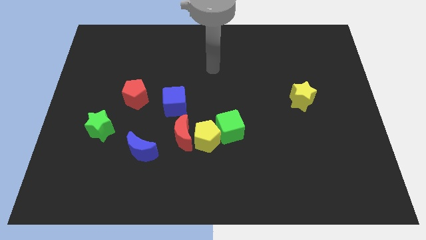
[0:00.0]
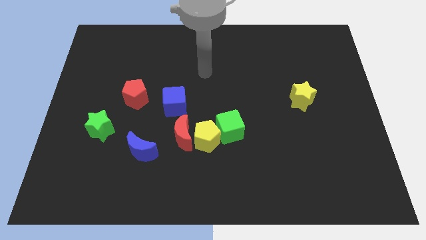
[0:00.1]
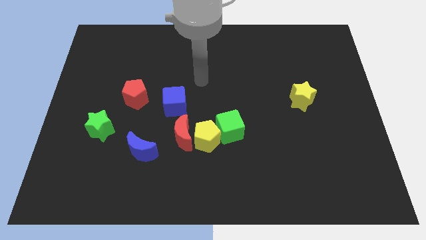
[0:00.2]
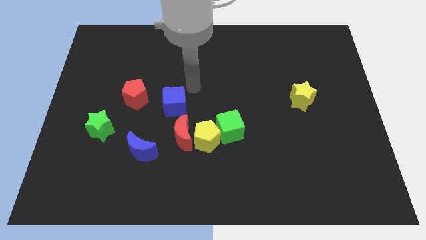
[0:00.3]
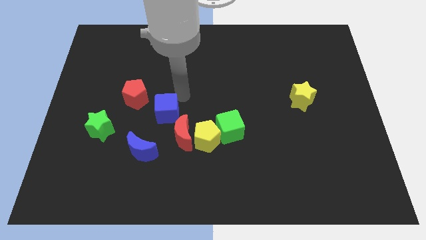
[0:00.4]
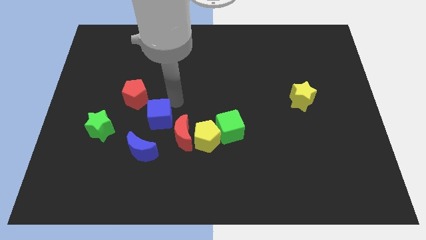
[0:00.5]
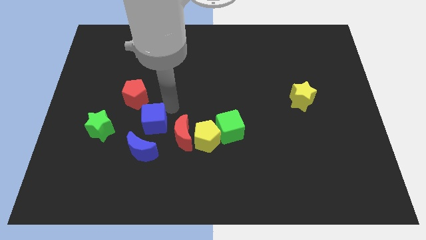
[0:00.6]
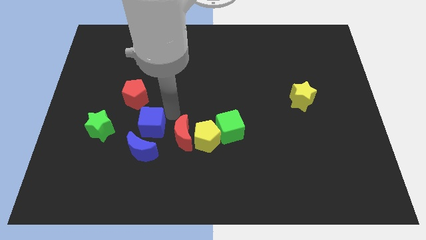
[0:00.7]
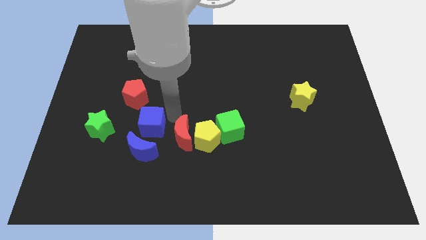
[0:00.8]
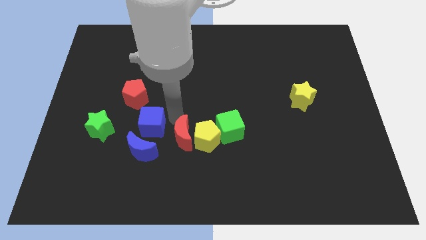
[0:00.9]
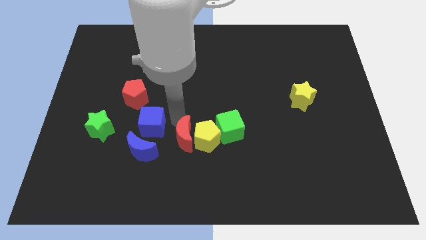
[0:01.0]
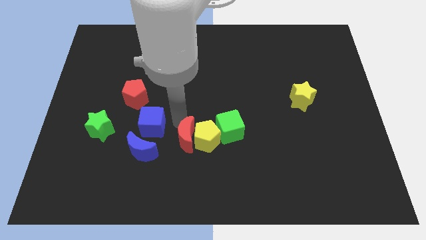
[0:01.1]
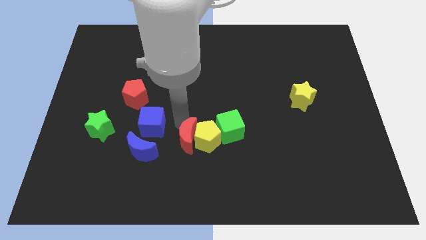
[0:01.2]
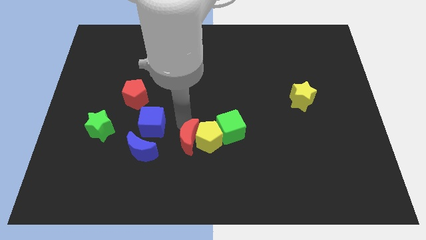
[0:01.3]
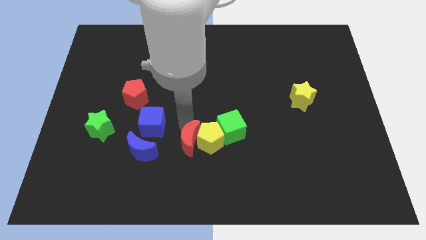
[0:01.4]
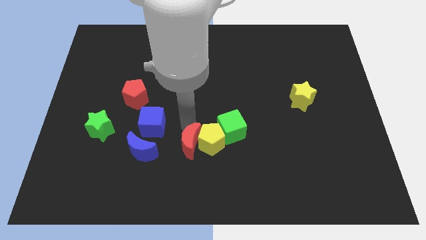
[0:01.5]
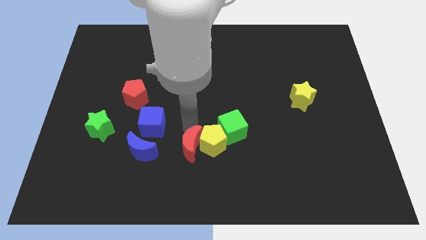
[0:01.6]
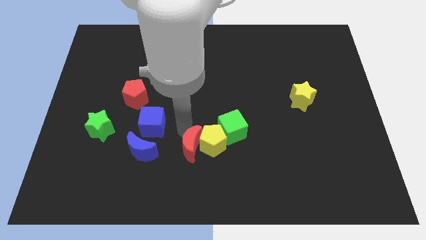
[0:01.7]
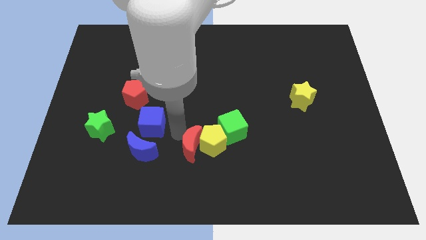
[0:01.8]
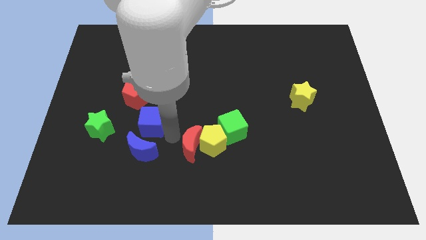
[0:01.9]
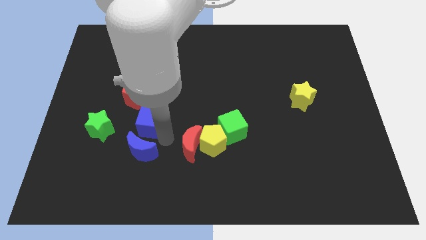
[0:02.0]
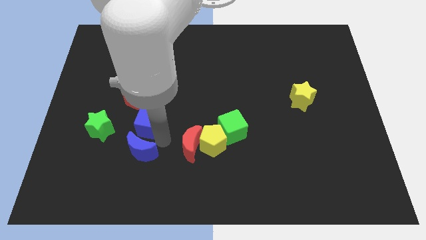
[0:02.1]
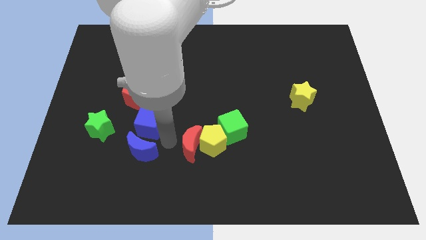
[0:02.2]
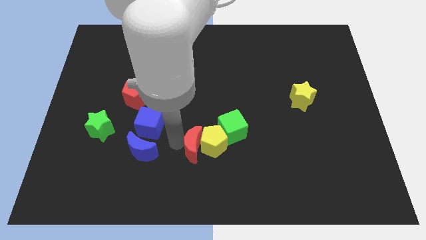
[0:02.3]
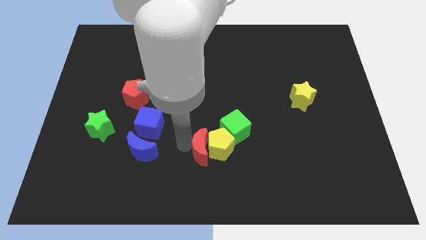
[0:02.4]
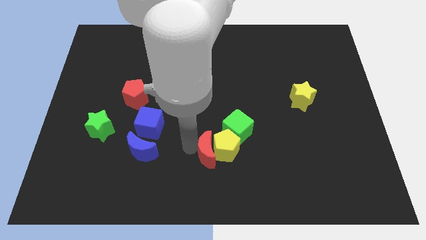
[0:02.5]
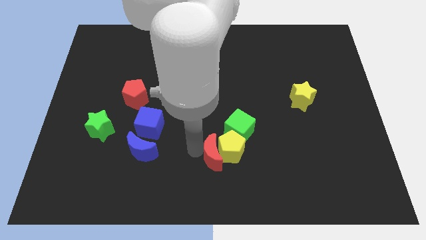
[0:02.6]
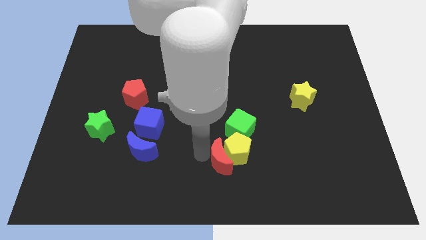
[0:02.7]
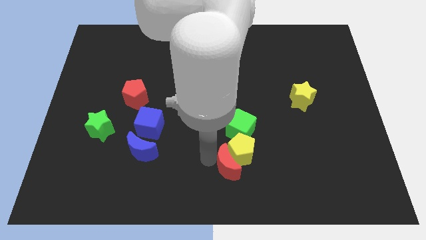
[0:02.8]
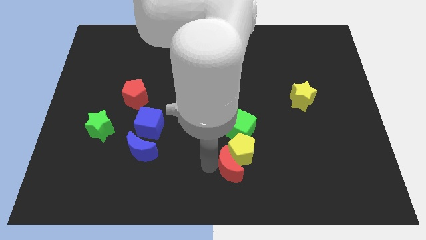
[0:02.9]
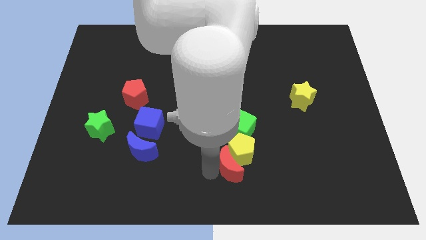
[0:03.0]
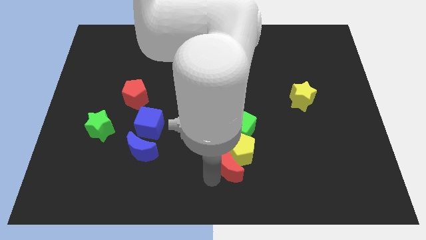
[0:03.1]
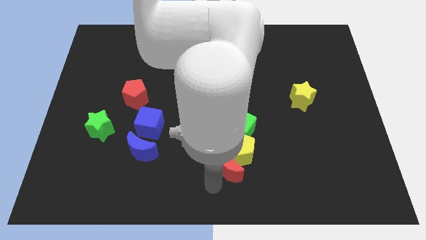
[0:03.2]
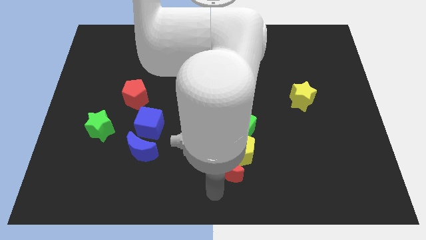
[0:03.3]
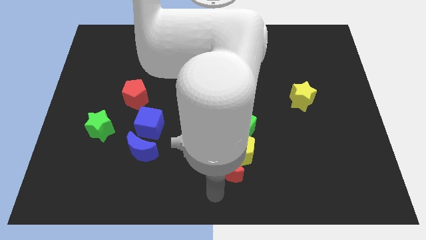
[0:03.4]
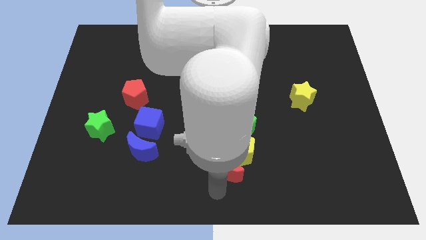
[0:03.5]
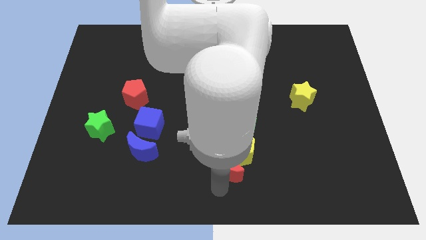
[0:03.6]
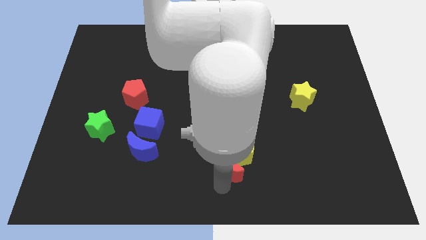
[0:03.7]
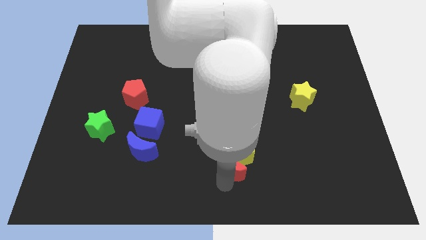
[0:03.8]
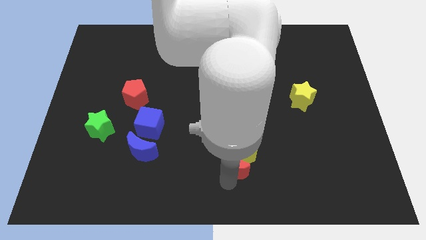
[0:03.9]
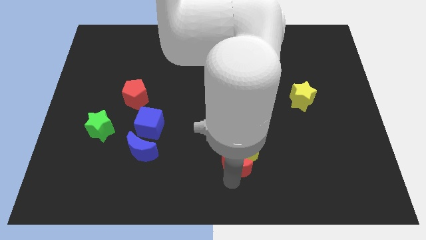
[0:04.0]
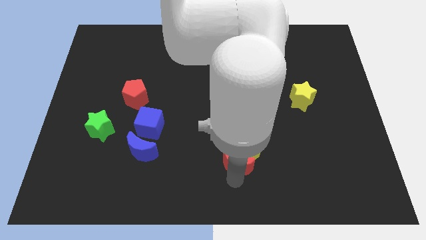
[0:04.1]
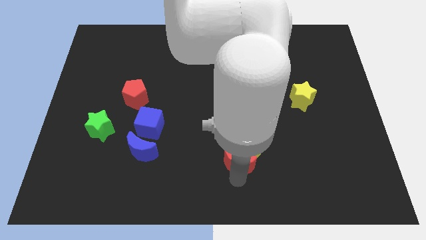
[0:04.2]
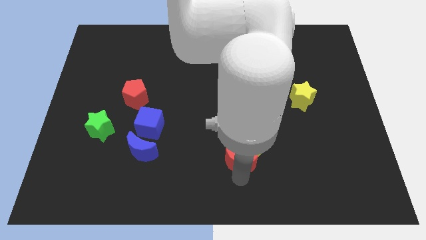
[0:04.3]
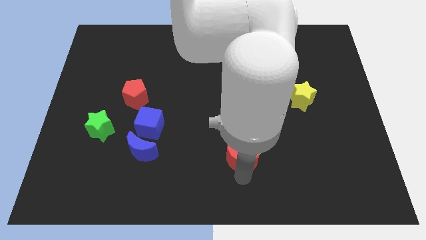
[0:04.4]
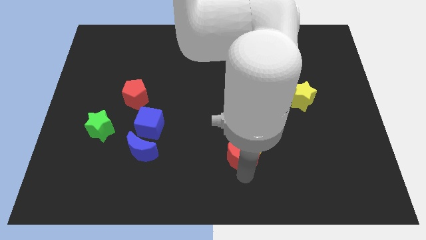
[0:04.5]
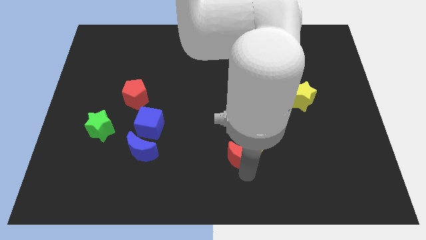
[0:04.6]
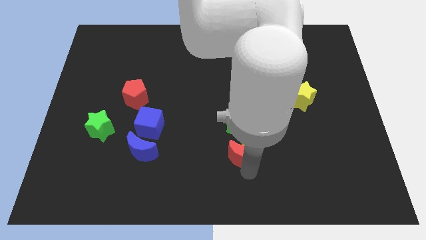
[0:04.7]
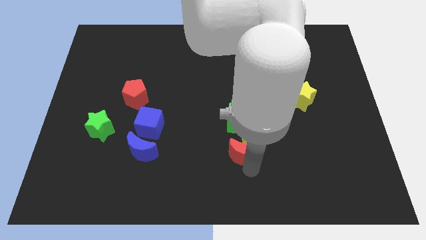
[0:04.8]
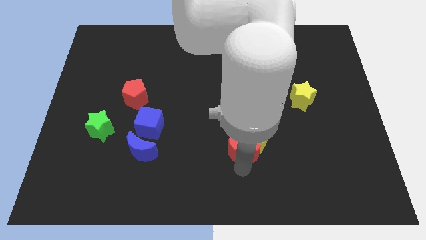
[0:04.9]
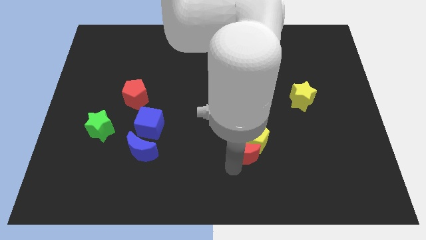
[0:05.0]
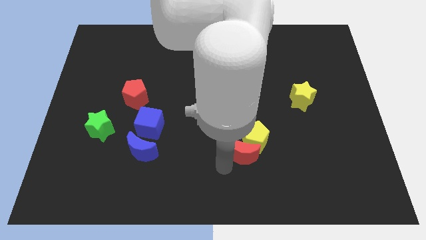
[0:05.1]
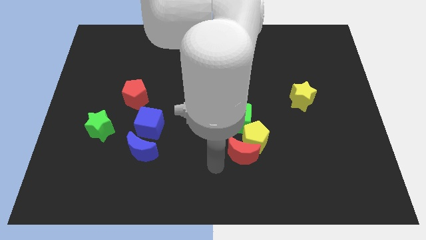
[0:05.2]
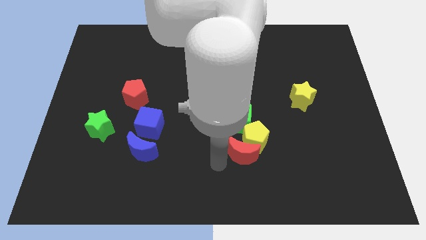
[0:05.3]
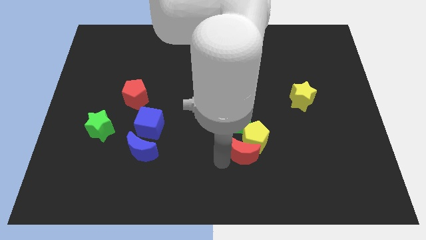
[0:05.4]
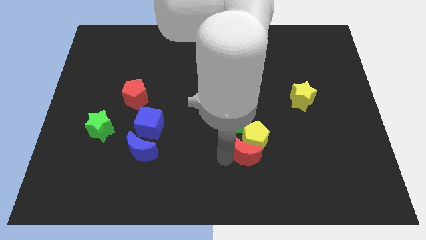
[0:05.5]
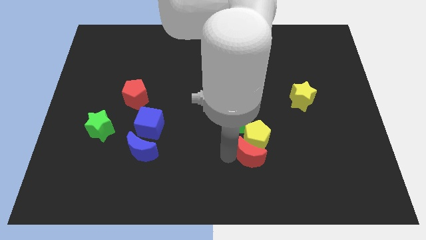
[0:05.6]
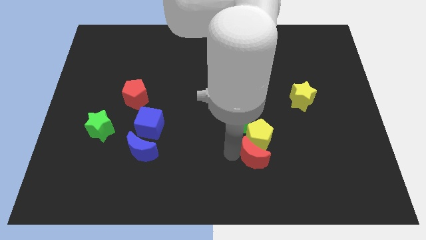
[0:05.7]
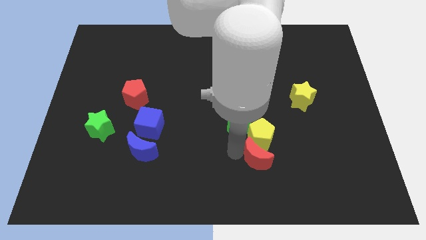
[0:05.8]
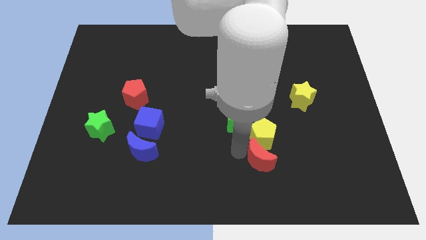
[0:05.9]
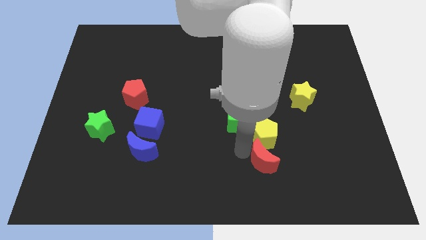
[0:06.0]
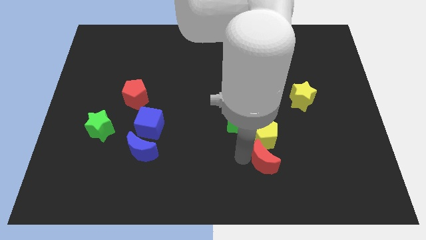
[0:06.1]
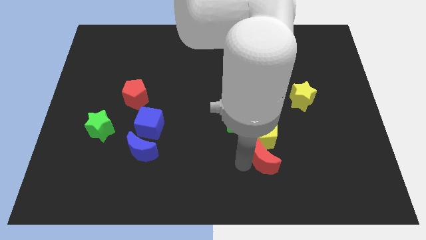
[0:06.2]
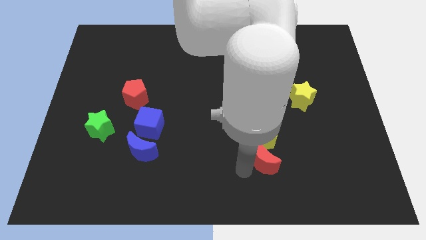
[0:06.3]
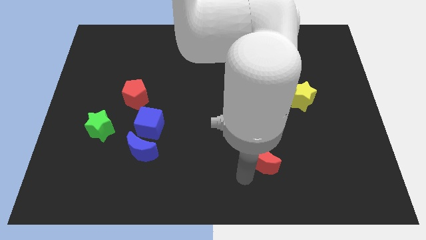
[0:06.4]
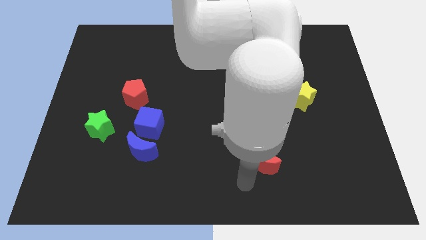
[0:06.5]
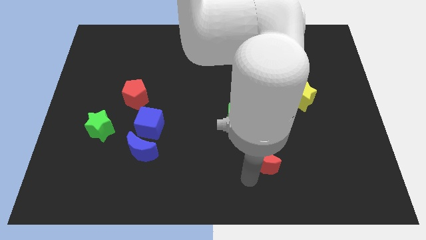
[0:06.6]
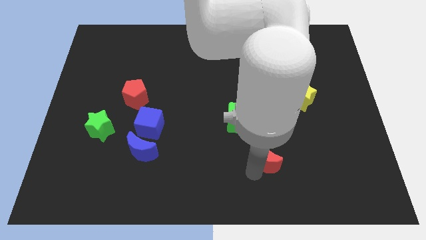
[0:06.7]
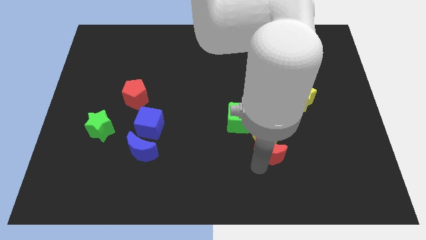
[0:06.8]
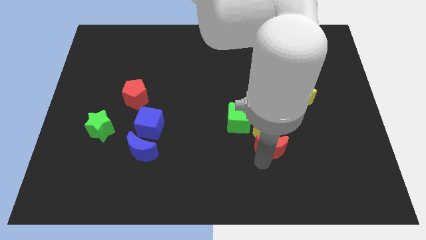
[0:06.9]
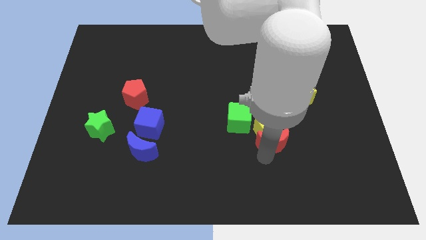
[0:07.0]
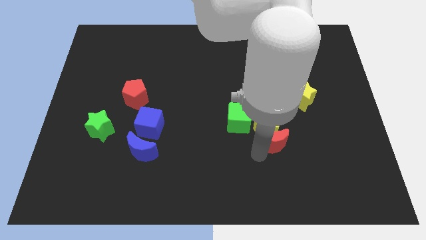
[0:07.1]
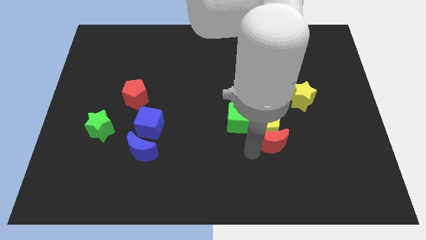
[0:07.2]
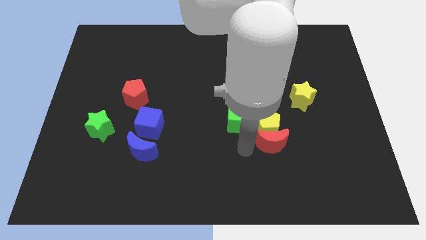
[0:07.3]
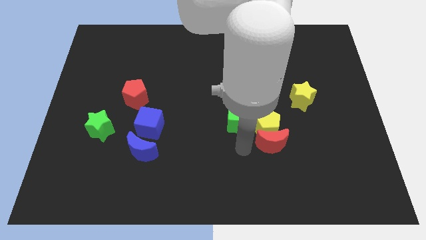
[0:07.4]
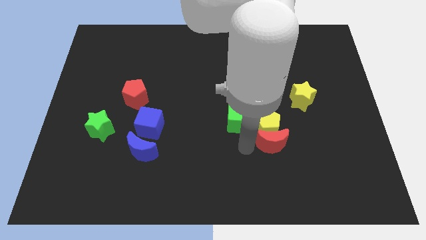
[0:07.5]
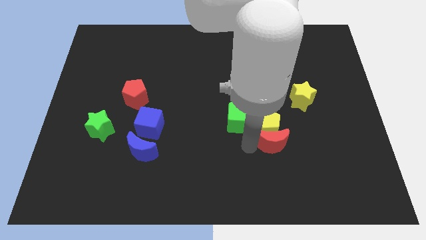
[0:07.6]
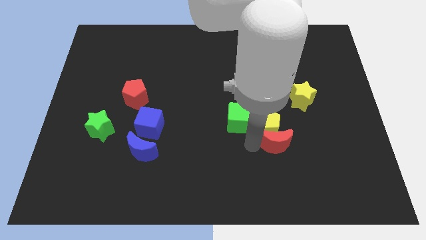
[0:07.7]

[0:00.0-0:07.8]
slide the red moon to the right

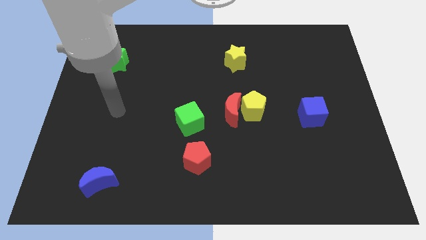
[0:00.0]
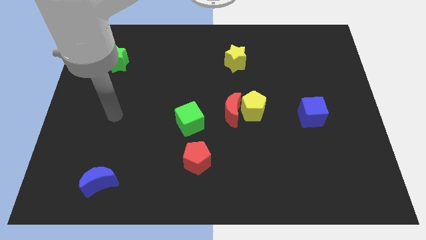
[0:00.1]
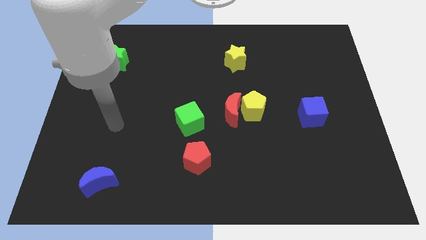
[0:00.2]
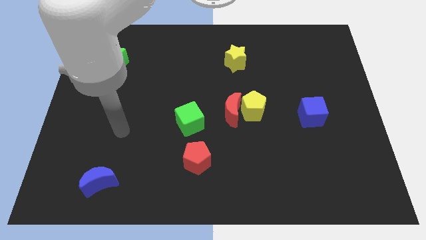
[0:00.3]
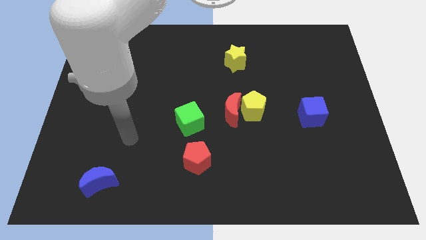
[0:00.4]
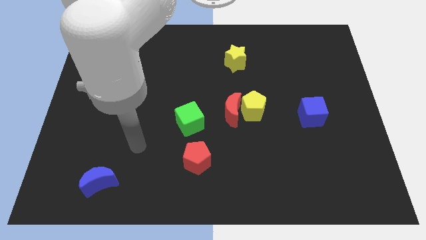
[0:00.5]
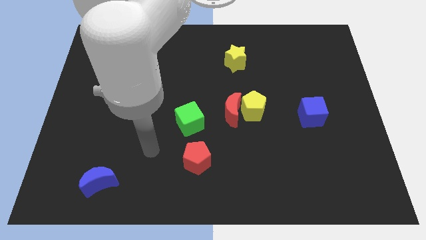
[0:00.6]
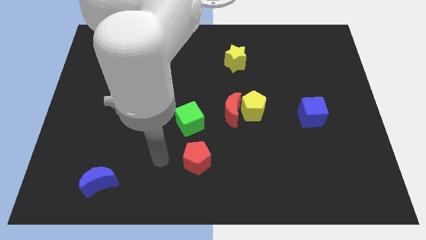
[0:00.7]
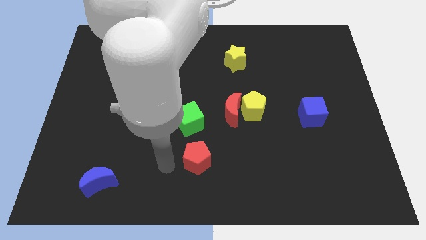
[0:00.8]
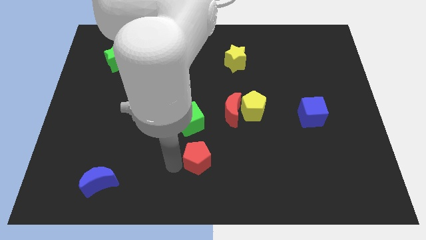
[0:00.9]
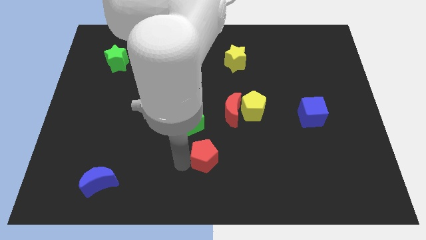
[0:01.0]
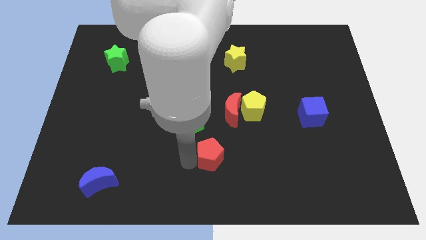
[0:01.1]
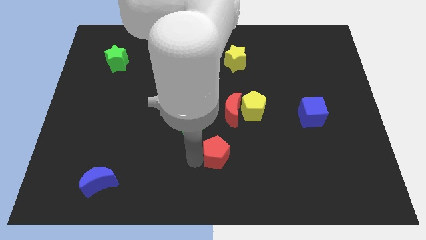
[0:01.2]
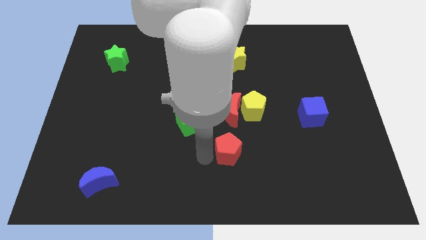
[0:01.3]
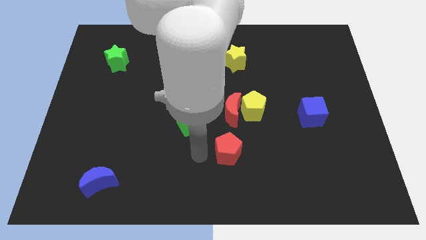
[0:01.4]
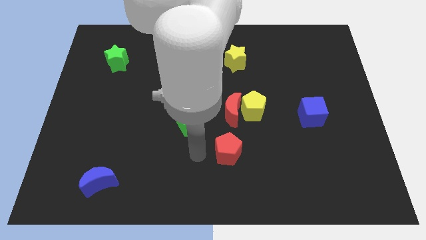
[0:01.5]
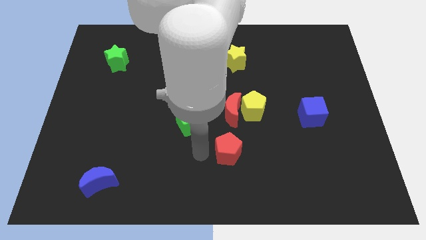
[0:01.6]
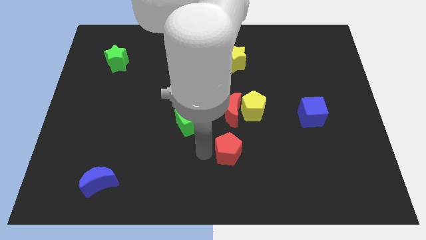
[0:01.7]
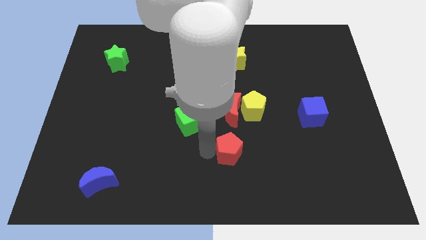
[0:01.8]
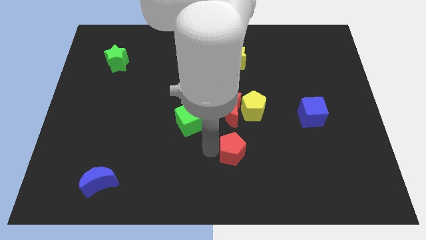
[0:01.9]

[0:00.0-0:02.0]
slide the red pentagon to the right somewhat
